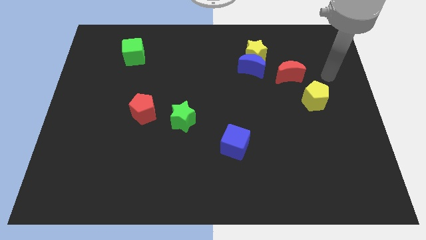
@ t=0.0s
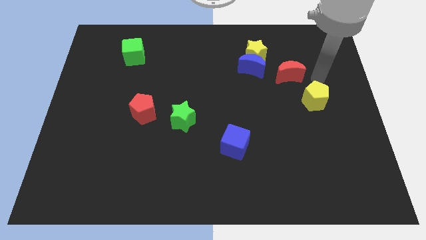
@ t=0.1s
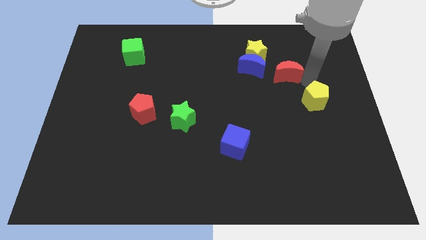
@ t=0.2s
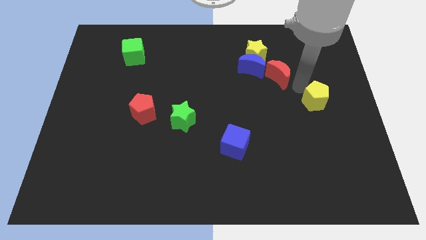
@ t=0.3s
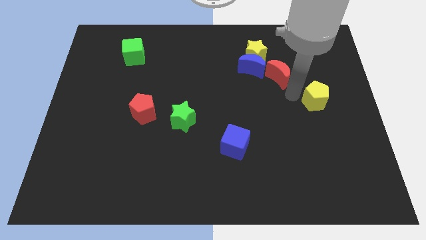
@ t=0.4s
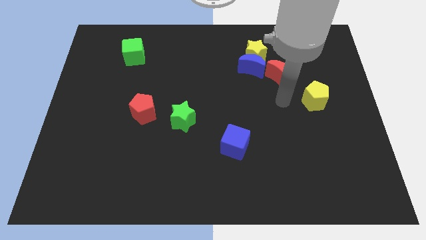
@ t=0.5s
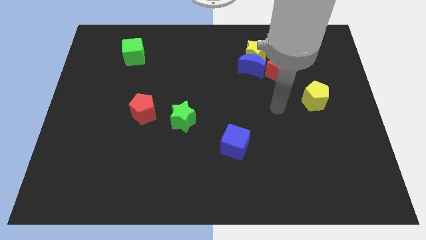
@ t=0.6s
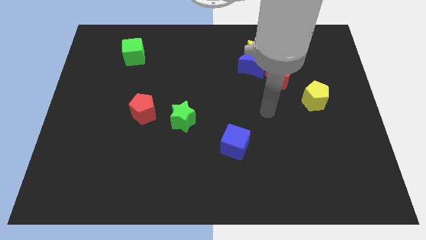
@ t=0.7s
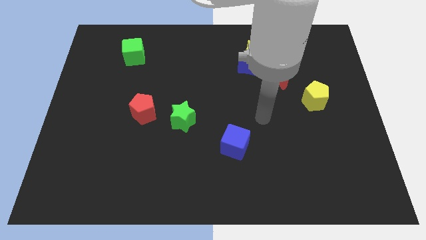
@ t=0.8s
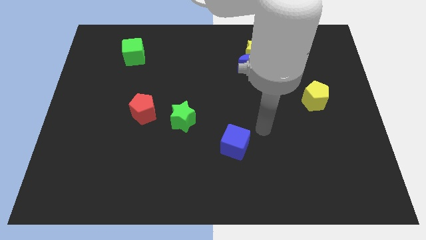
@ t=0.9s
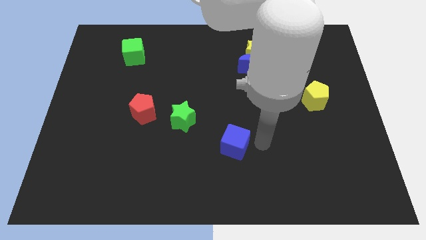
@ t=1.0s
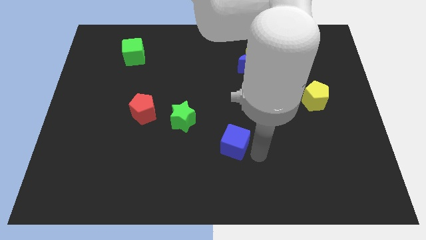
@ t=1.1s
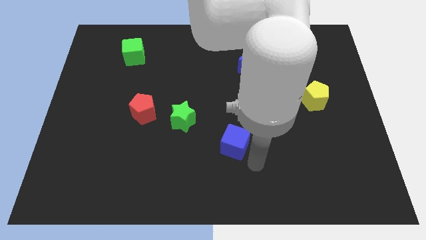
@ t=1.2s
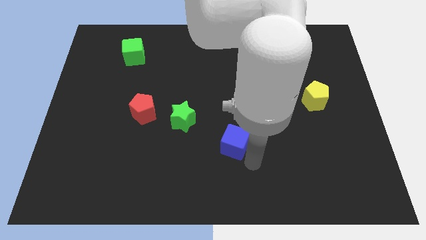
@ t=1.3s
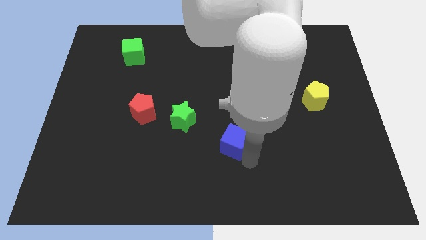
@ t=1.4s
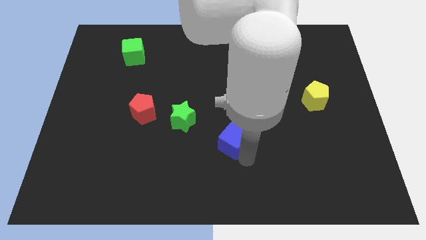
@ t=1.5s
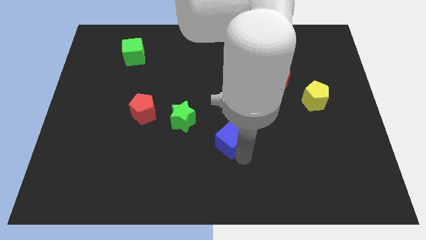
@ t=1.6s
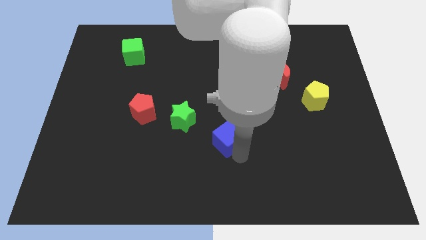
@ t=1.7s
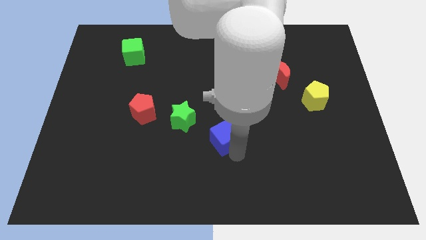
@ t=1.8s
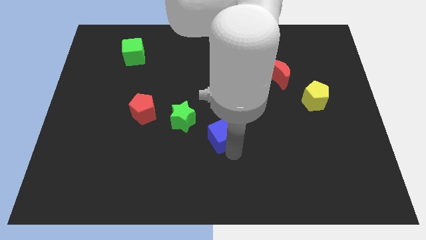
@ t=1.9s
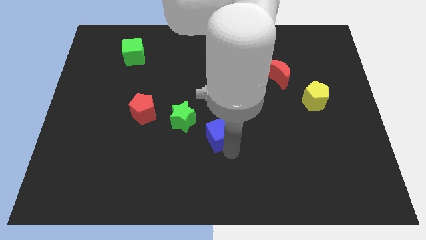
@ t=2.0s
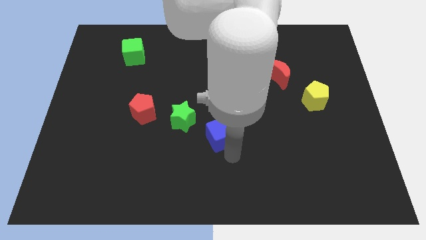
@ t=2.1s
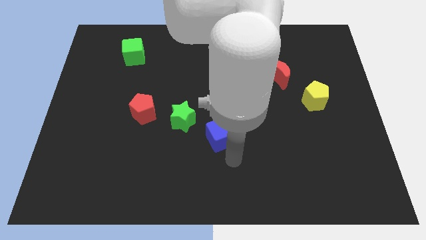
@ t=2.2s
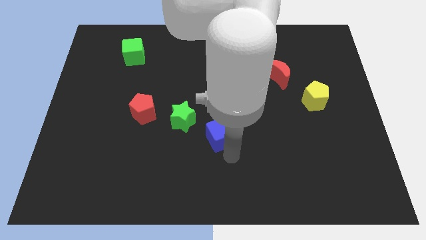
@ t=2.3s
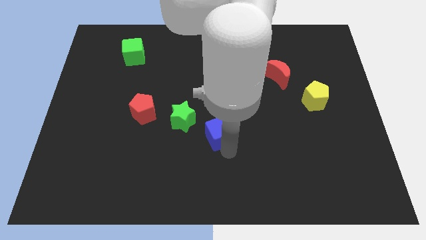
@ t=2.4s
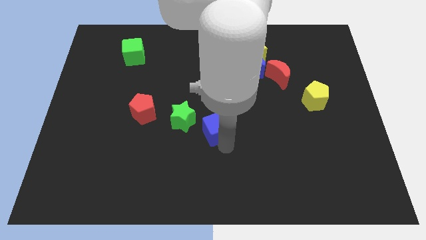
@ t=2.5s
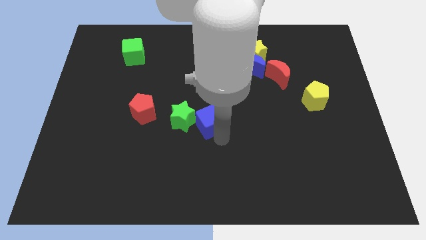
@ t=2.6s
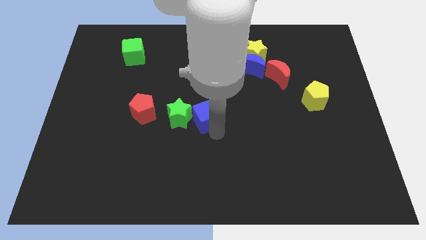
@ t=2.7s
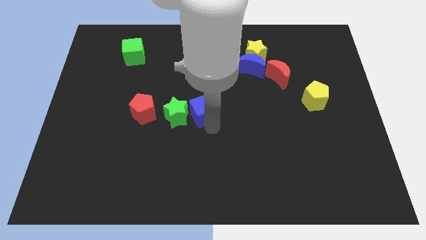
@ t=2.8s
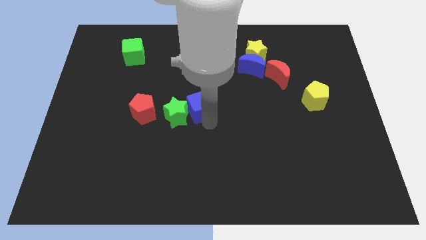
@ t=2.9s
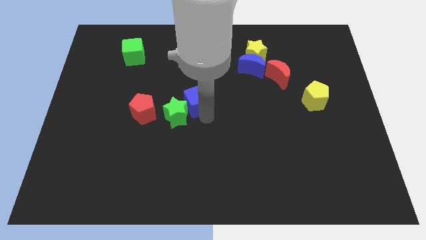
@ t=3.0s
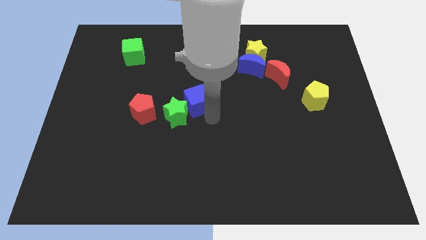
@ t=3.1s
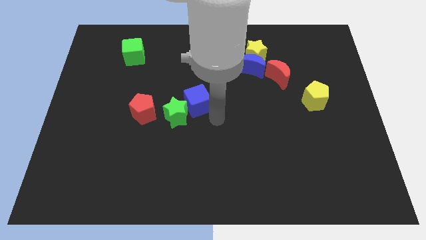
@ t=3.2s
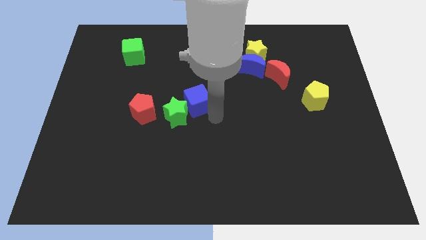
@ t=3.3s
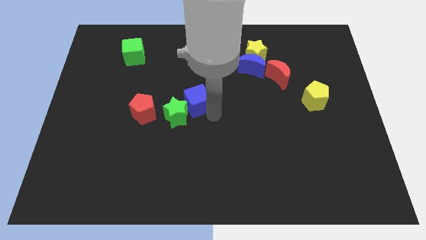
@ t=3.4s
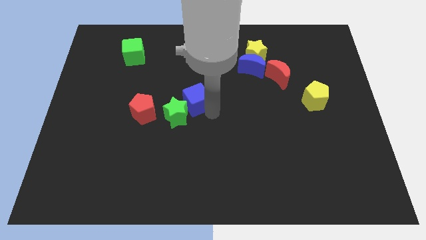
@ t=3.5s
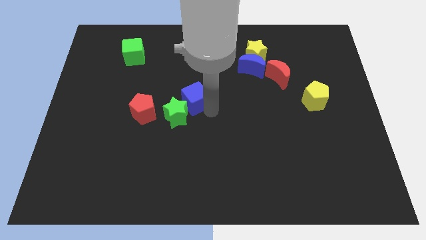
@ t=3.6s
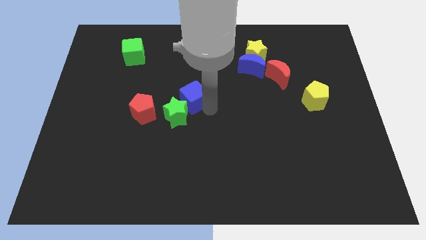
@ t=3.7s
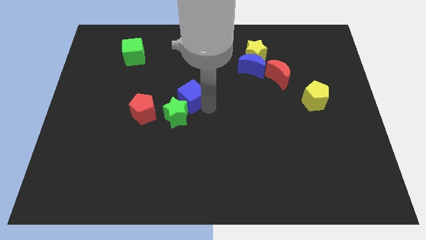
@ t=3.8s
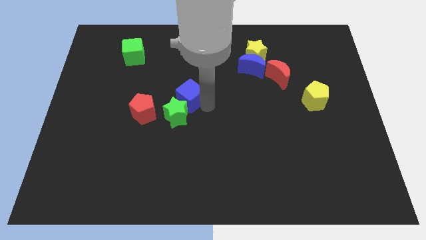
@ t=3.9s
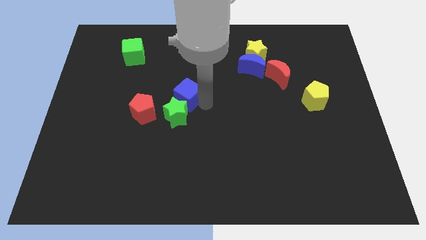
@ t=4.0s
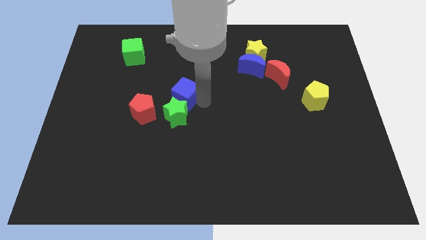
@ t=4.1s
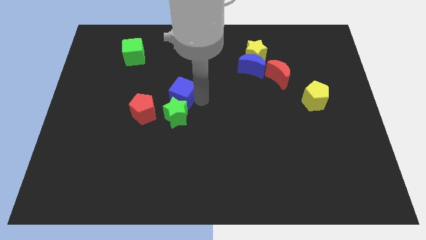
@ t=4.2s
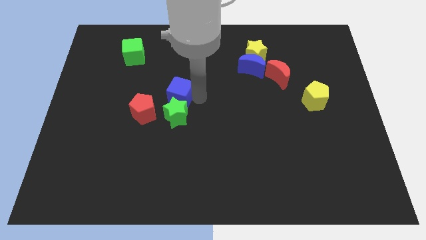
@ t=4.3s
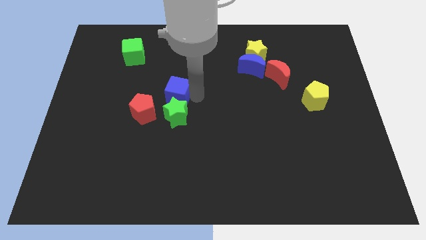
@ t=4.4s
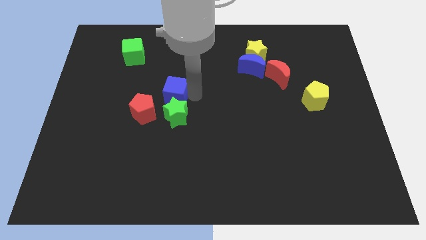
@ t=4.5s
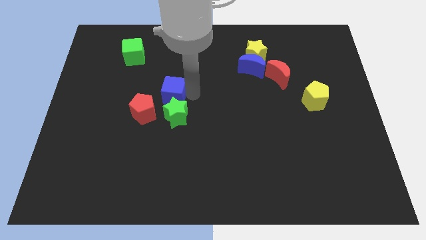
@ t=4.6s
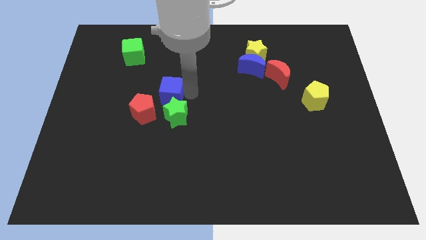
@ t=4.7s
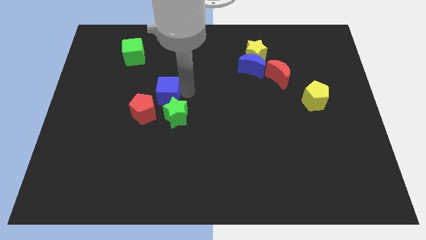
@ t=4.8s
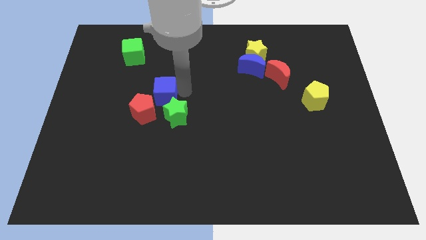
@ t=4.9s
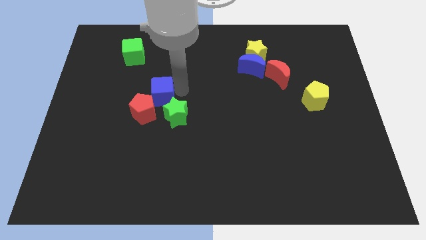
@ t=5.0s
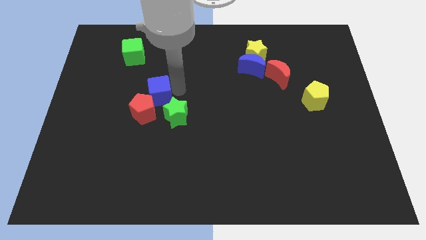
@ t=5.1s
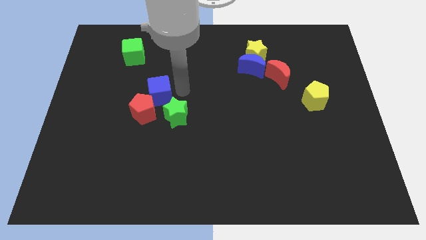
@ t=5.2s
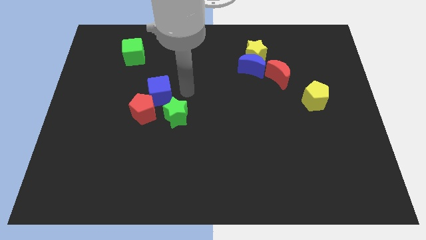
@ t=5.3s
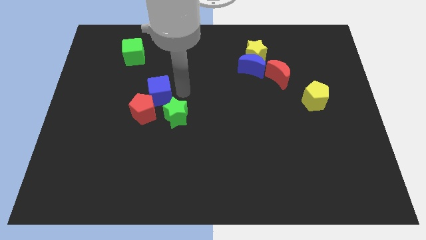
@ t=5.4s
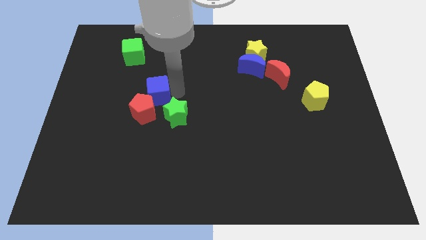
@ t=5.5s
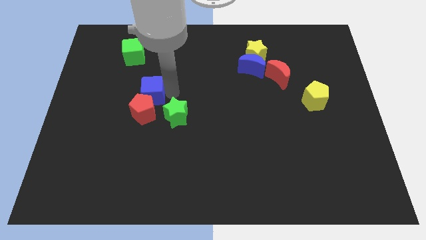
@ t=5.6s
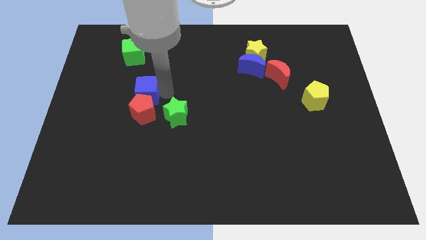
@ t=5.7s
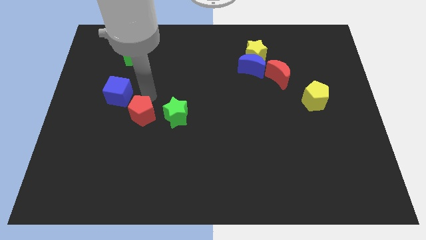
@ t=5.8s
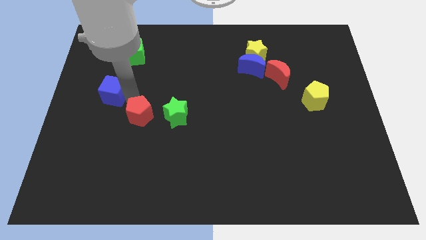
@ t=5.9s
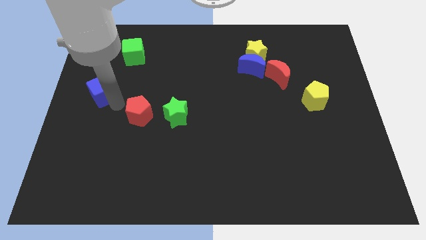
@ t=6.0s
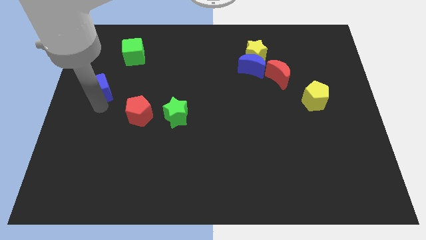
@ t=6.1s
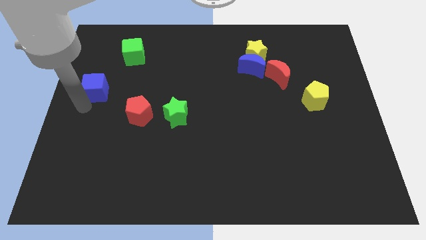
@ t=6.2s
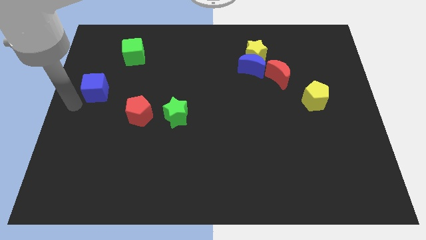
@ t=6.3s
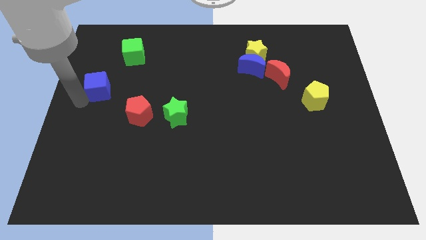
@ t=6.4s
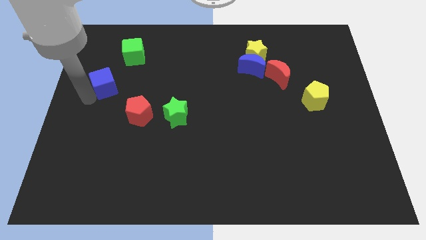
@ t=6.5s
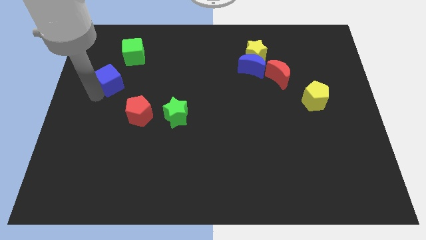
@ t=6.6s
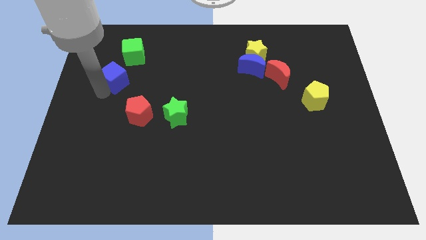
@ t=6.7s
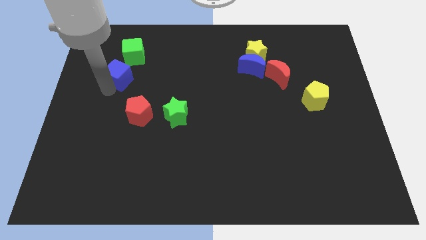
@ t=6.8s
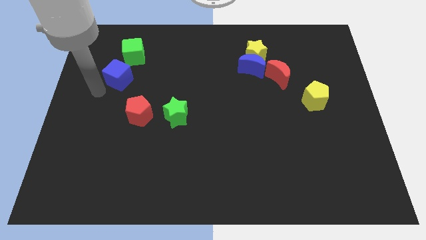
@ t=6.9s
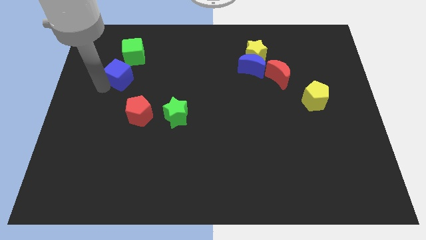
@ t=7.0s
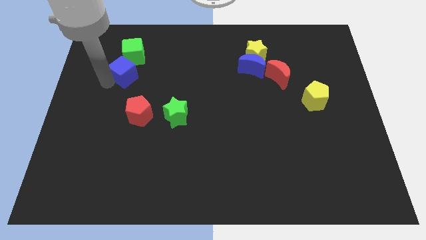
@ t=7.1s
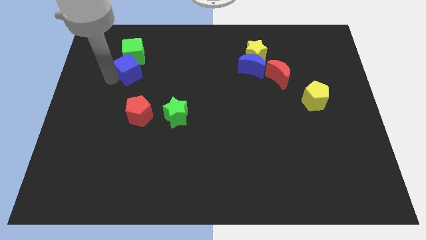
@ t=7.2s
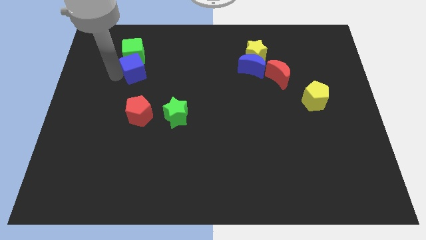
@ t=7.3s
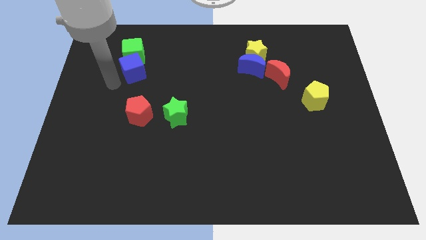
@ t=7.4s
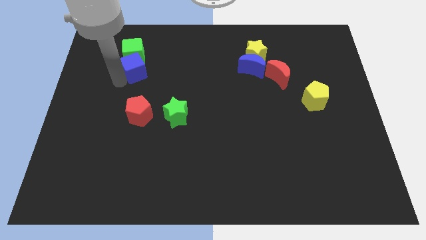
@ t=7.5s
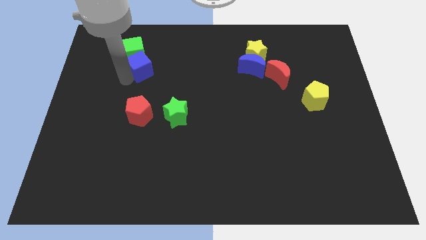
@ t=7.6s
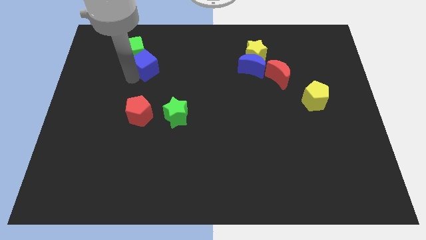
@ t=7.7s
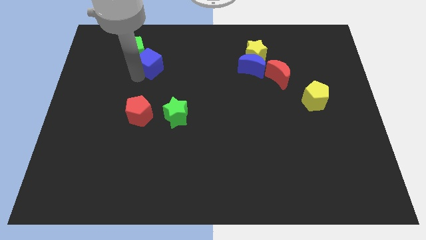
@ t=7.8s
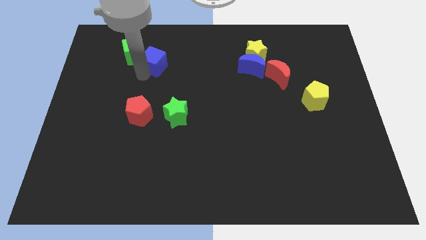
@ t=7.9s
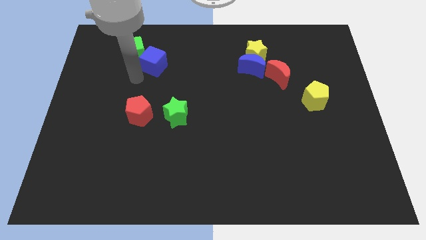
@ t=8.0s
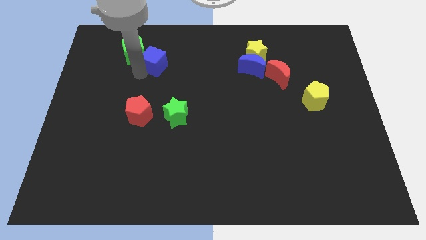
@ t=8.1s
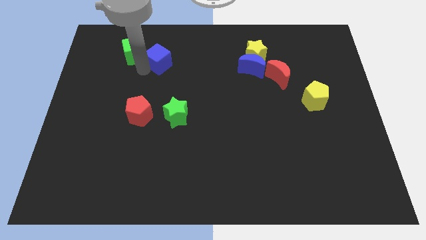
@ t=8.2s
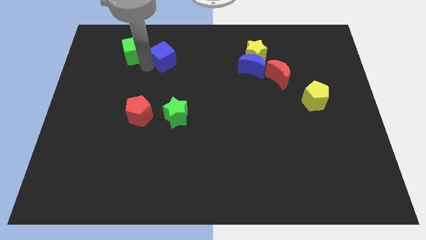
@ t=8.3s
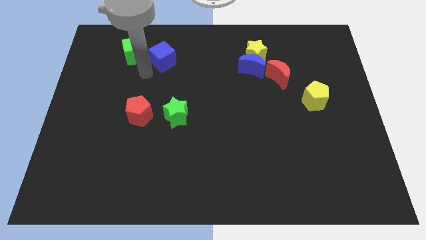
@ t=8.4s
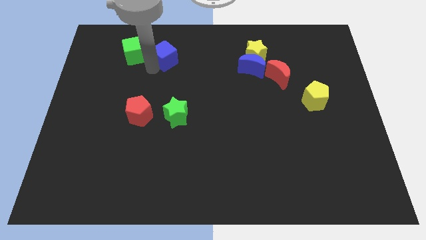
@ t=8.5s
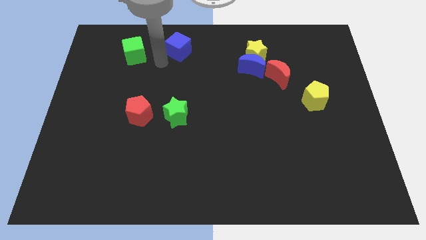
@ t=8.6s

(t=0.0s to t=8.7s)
move the blue cube to the towards your base
